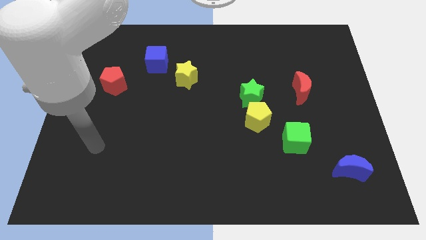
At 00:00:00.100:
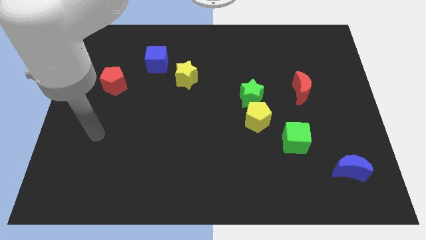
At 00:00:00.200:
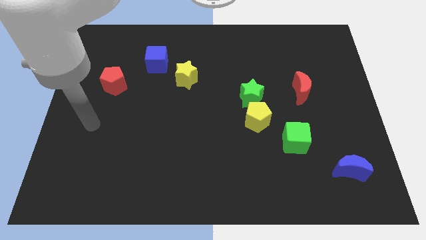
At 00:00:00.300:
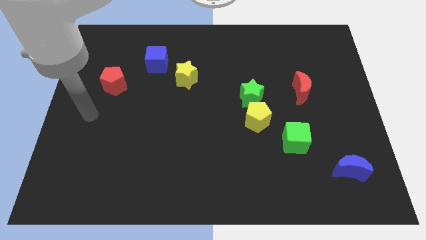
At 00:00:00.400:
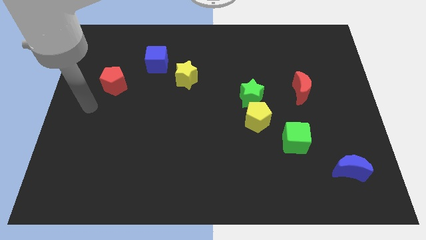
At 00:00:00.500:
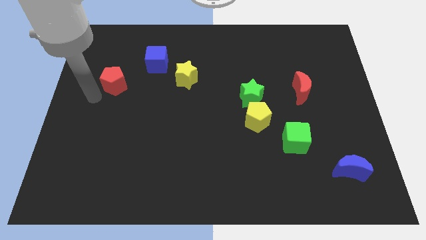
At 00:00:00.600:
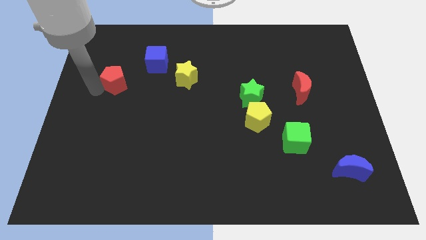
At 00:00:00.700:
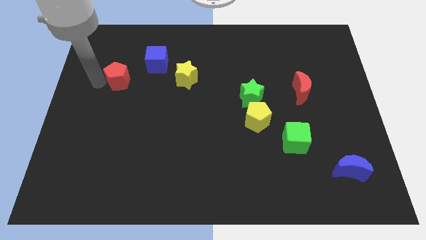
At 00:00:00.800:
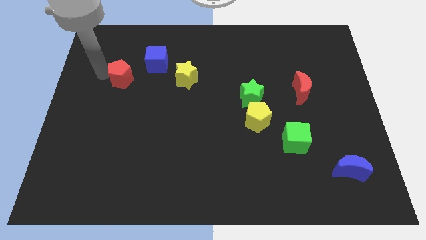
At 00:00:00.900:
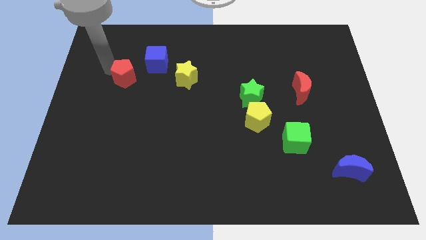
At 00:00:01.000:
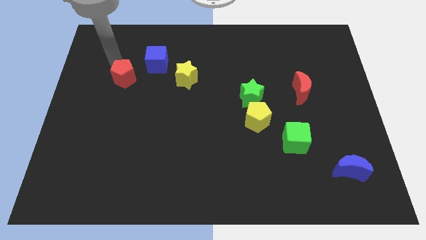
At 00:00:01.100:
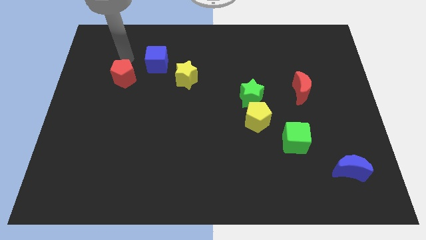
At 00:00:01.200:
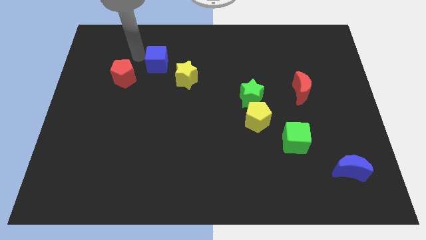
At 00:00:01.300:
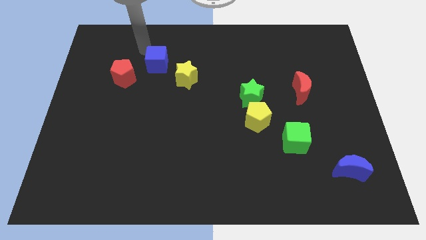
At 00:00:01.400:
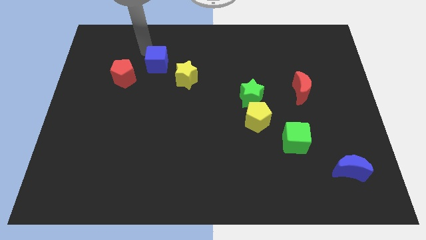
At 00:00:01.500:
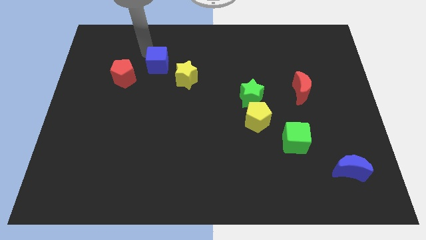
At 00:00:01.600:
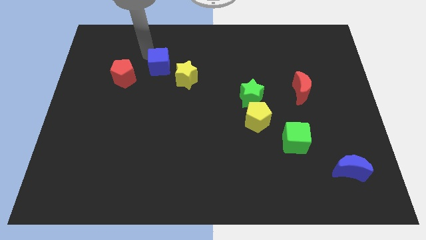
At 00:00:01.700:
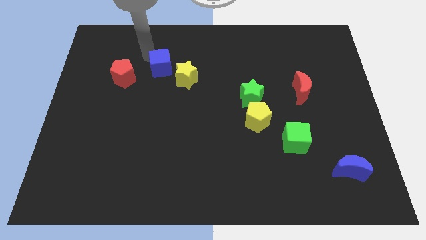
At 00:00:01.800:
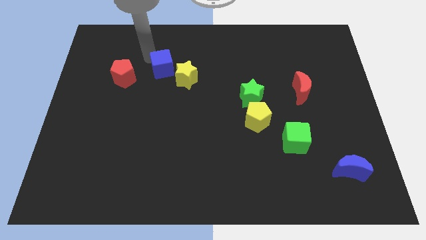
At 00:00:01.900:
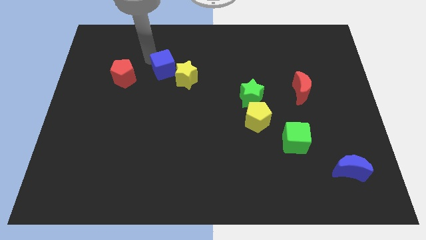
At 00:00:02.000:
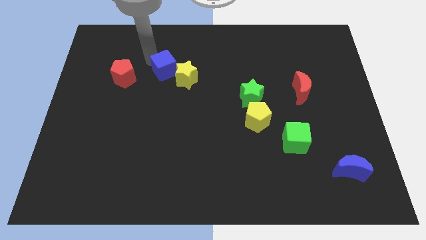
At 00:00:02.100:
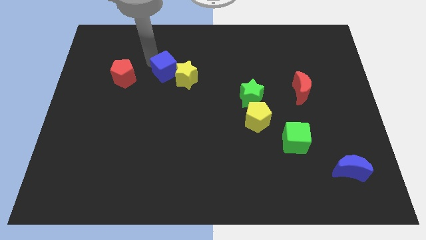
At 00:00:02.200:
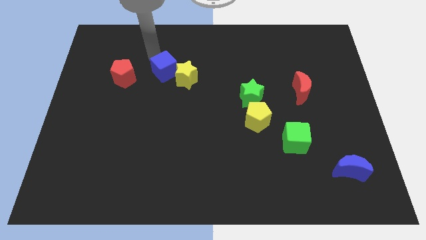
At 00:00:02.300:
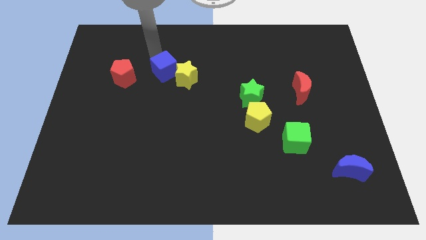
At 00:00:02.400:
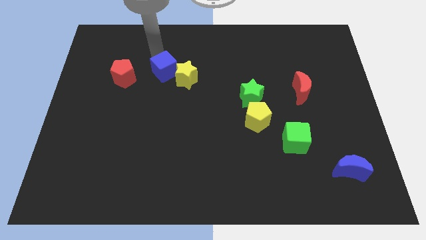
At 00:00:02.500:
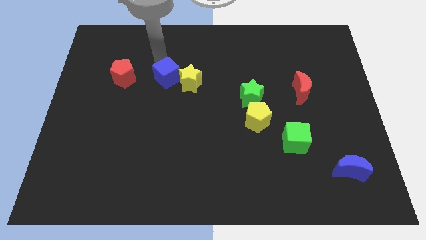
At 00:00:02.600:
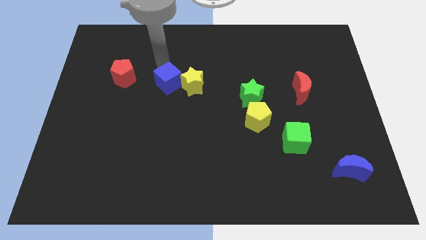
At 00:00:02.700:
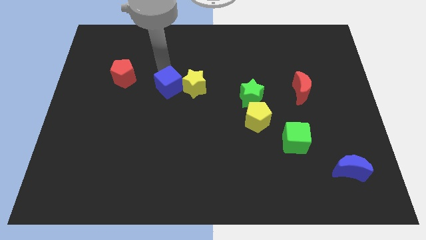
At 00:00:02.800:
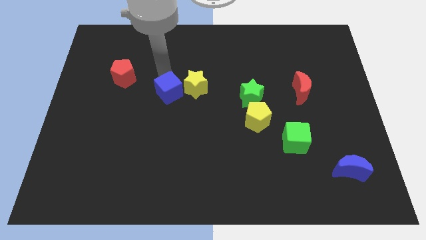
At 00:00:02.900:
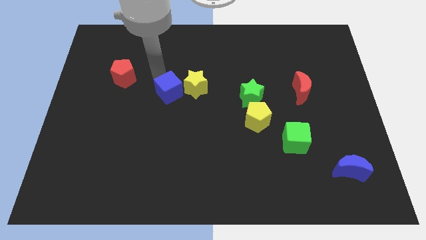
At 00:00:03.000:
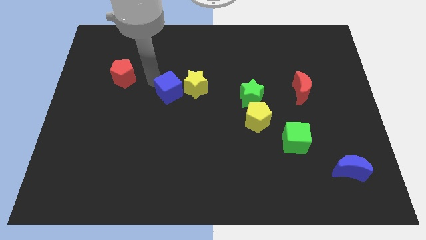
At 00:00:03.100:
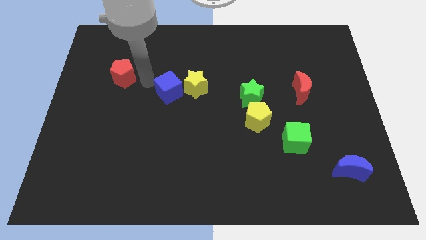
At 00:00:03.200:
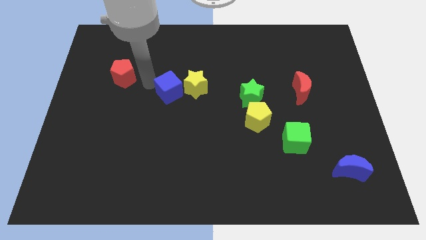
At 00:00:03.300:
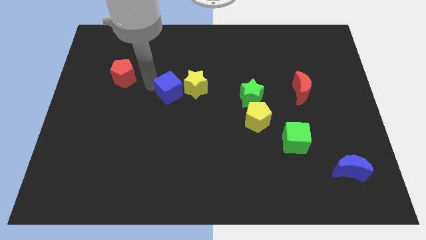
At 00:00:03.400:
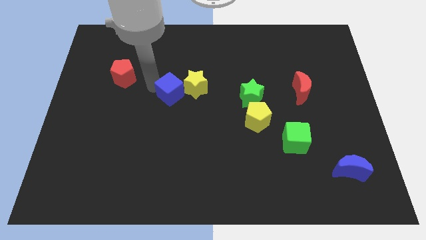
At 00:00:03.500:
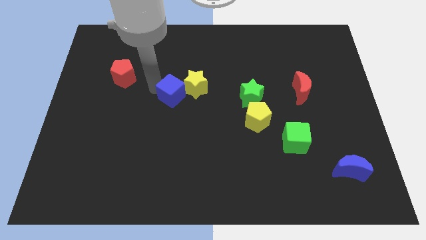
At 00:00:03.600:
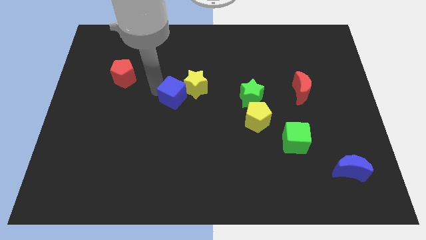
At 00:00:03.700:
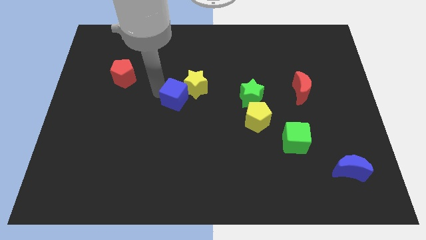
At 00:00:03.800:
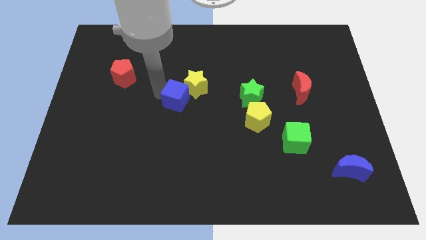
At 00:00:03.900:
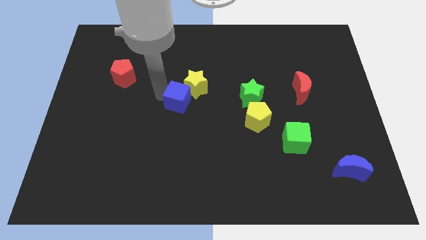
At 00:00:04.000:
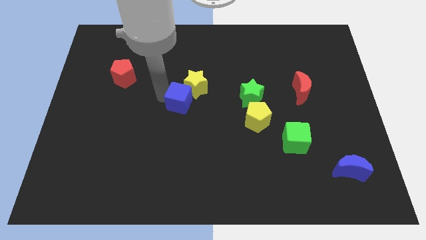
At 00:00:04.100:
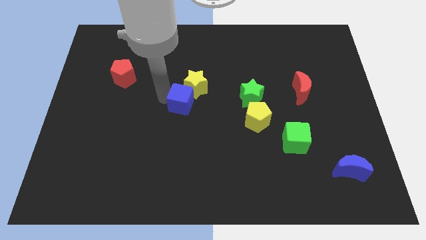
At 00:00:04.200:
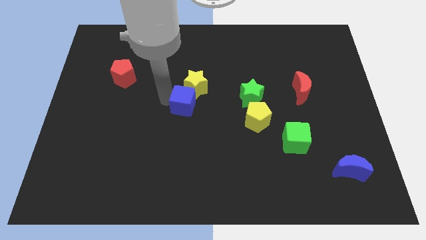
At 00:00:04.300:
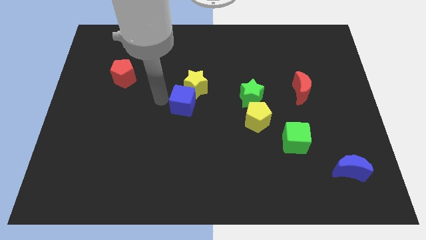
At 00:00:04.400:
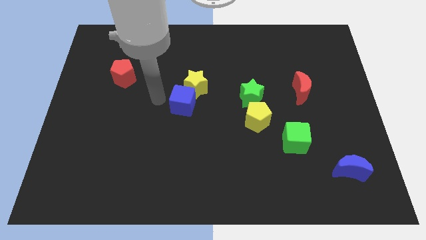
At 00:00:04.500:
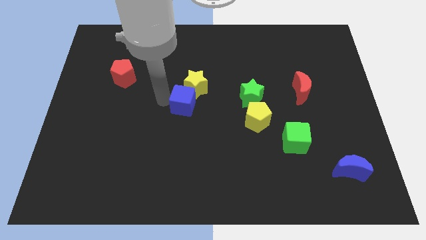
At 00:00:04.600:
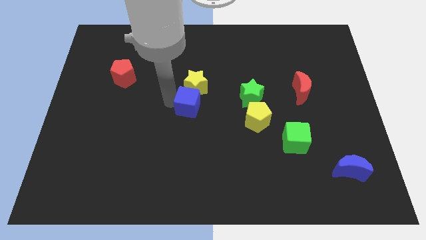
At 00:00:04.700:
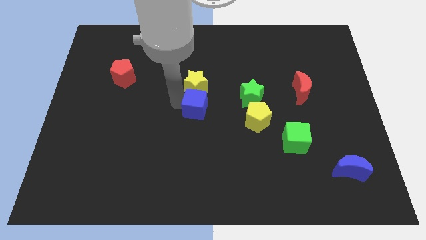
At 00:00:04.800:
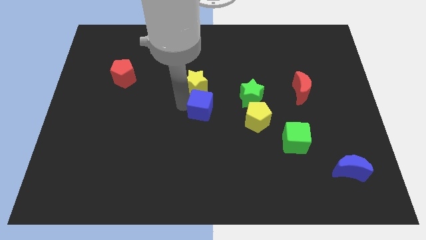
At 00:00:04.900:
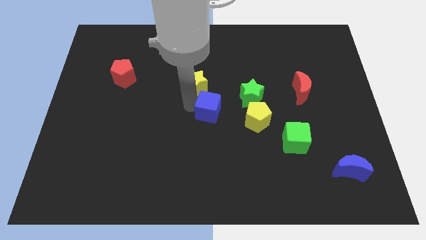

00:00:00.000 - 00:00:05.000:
slide the blue cube downwards and right

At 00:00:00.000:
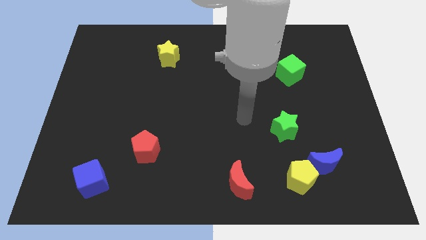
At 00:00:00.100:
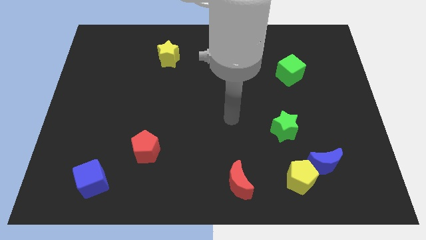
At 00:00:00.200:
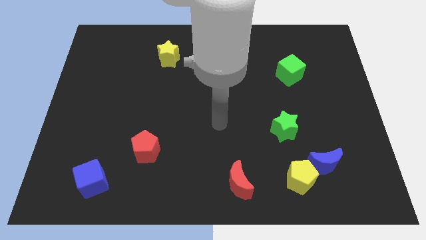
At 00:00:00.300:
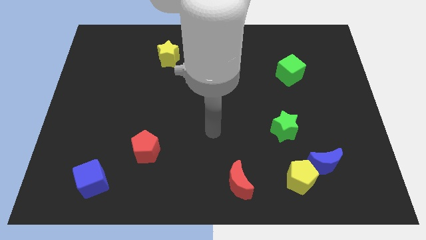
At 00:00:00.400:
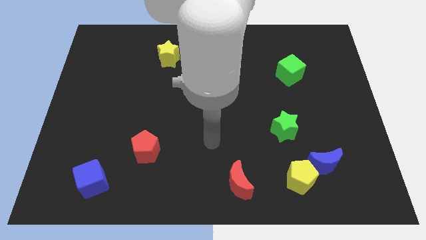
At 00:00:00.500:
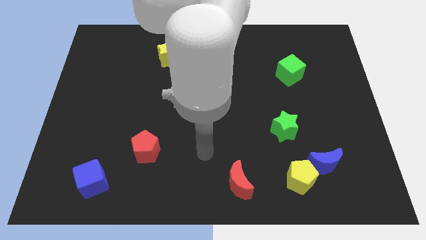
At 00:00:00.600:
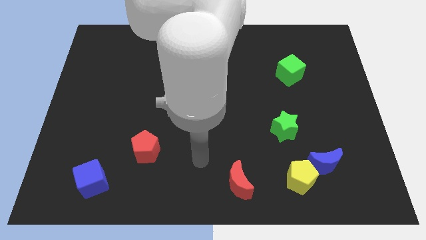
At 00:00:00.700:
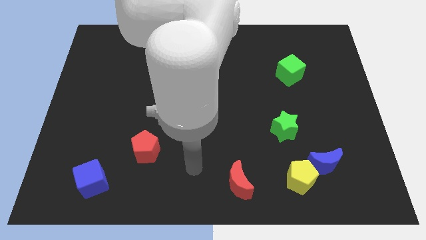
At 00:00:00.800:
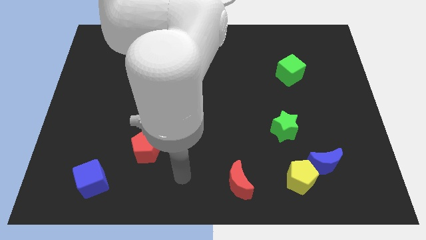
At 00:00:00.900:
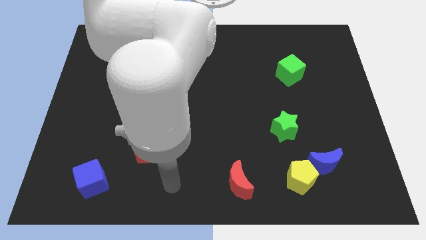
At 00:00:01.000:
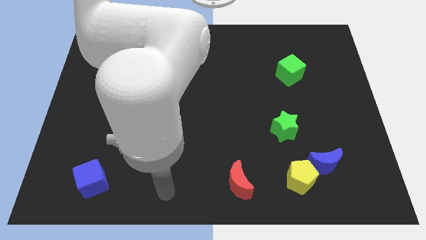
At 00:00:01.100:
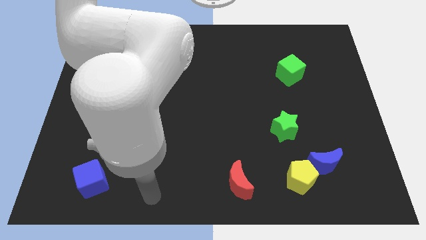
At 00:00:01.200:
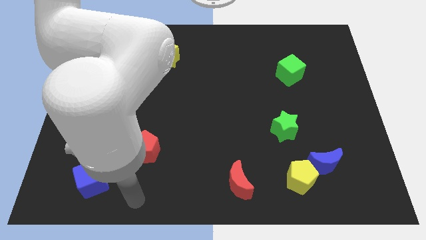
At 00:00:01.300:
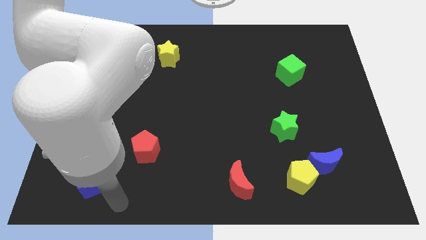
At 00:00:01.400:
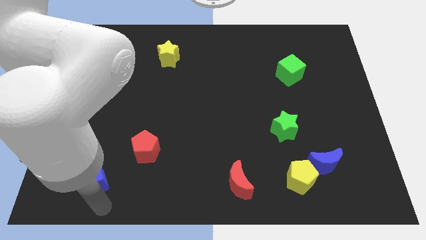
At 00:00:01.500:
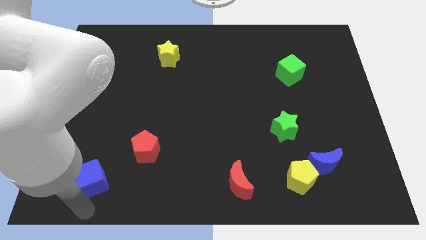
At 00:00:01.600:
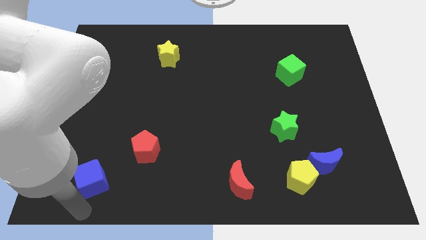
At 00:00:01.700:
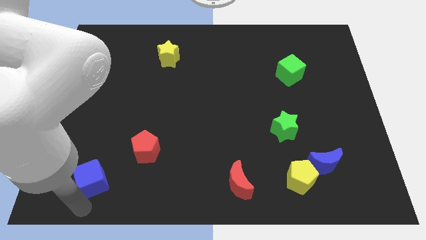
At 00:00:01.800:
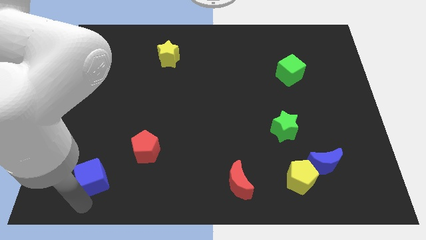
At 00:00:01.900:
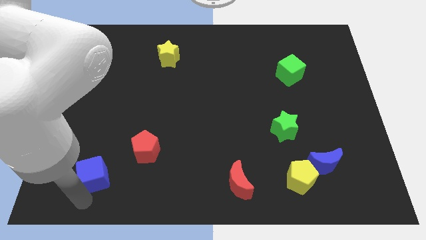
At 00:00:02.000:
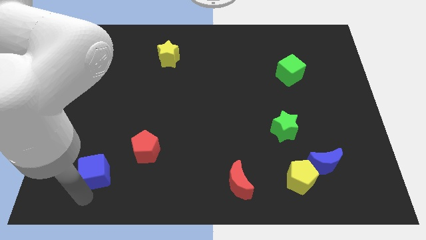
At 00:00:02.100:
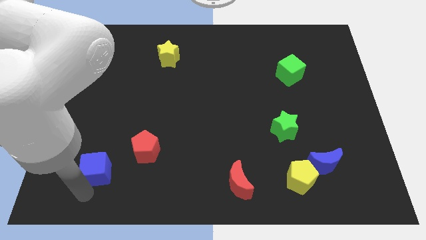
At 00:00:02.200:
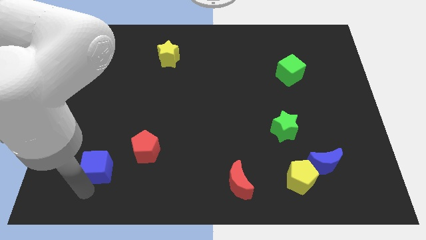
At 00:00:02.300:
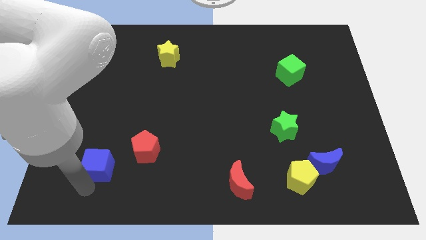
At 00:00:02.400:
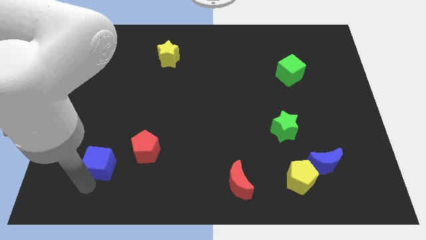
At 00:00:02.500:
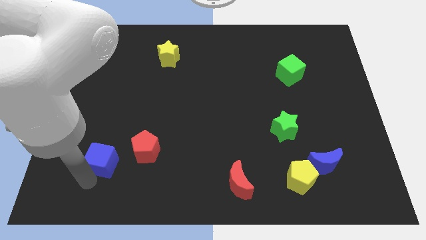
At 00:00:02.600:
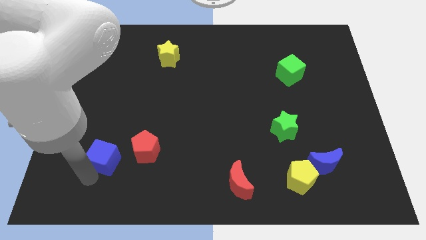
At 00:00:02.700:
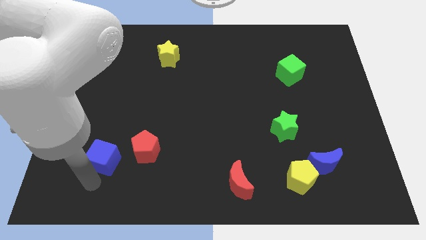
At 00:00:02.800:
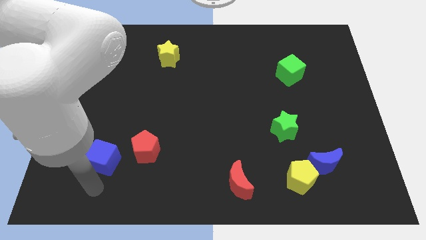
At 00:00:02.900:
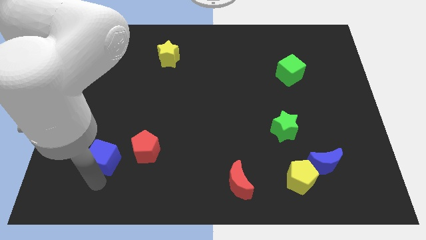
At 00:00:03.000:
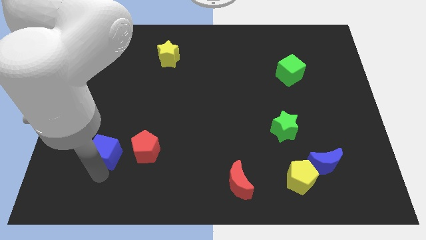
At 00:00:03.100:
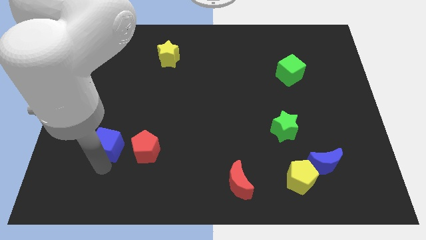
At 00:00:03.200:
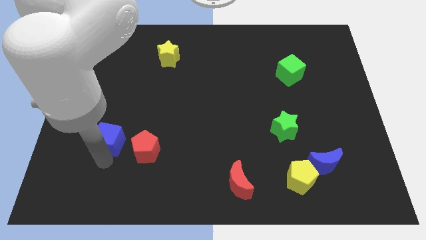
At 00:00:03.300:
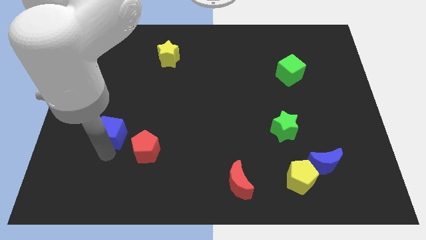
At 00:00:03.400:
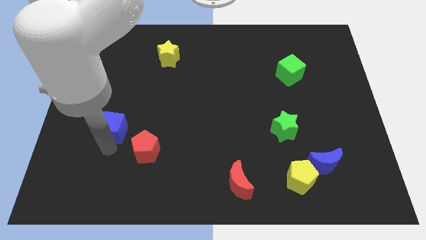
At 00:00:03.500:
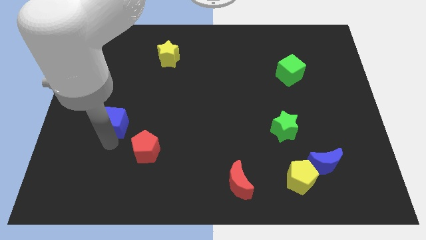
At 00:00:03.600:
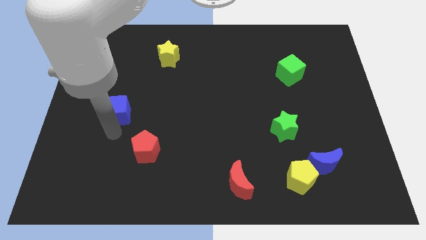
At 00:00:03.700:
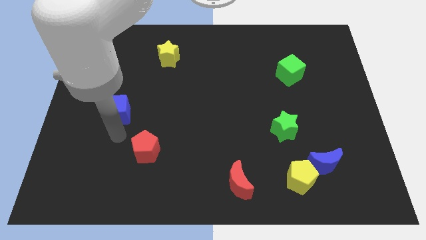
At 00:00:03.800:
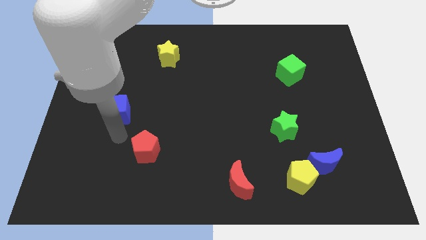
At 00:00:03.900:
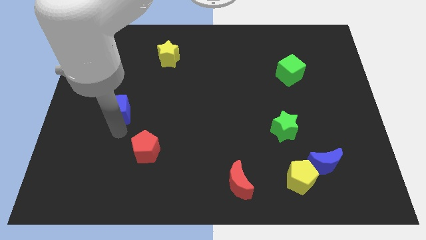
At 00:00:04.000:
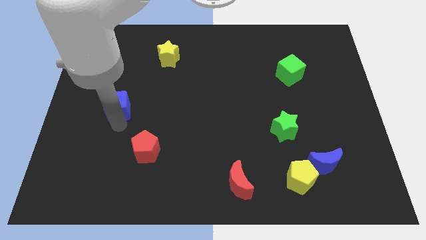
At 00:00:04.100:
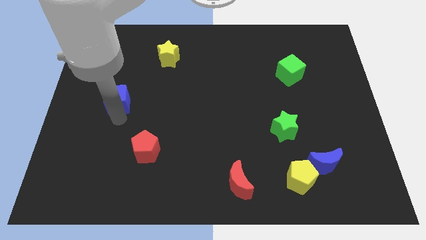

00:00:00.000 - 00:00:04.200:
slide the blue cube upwards
